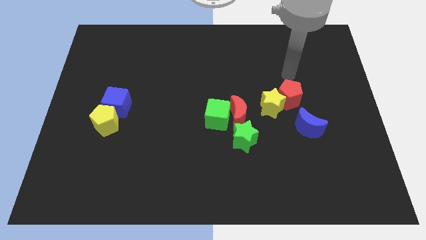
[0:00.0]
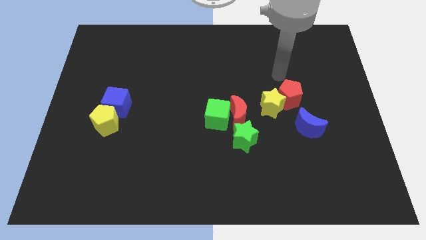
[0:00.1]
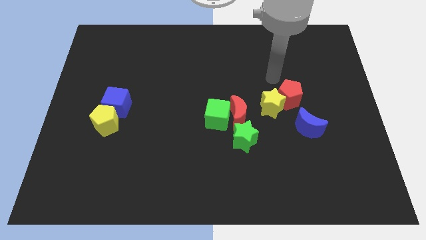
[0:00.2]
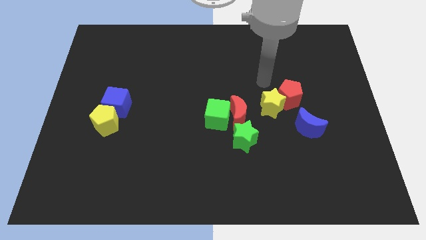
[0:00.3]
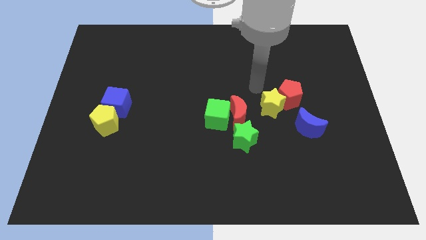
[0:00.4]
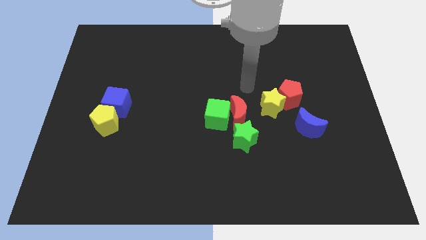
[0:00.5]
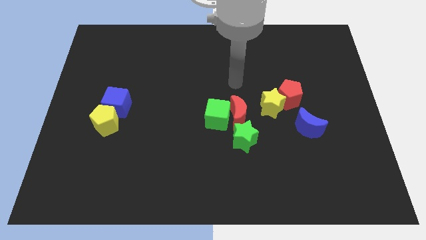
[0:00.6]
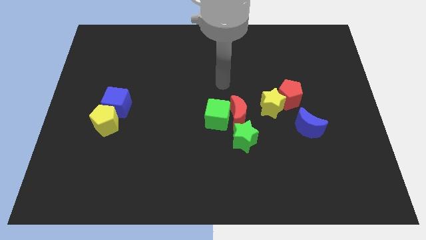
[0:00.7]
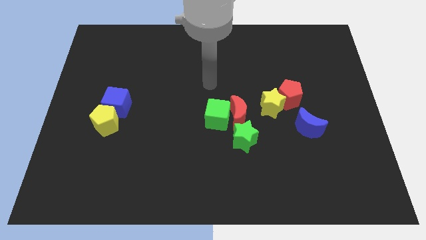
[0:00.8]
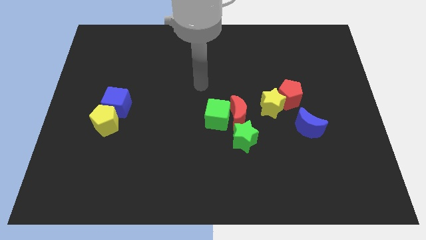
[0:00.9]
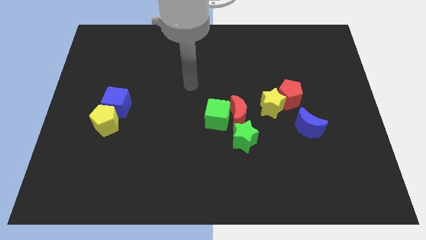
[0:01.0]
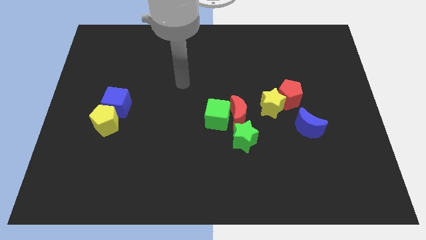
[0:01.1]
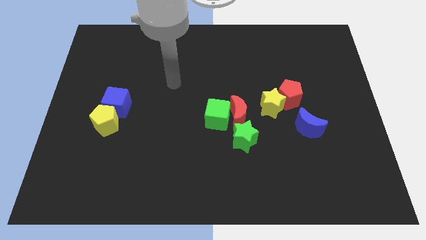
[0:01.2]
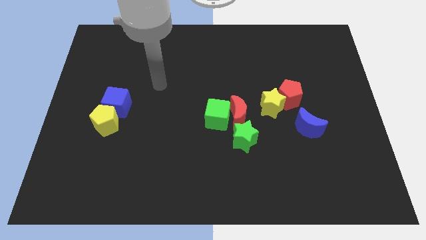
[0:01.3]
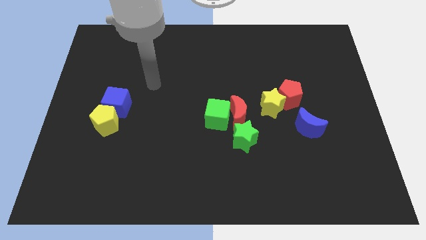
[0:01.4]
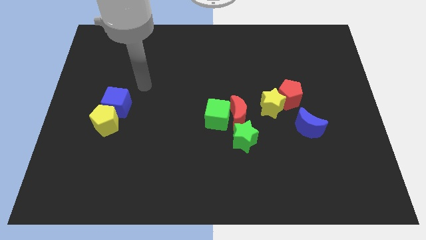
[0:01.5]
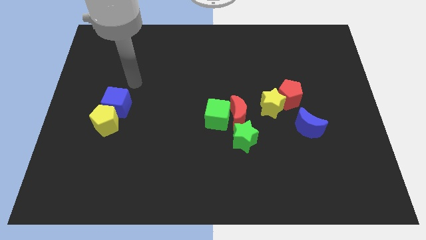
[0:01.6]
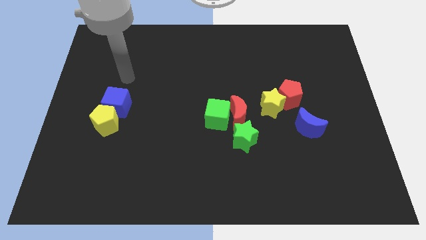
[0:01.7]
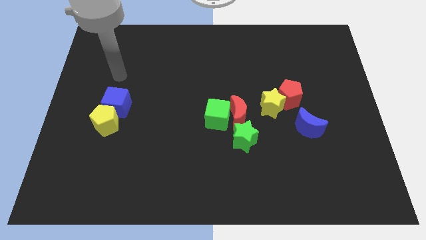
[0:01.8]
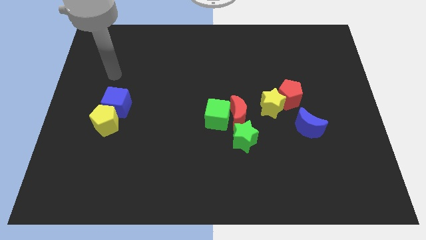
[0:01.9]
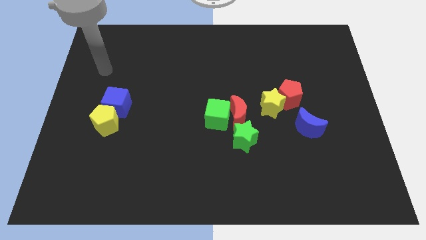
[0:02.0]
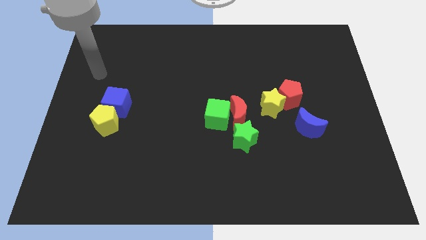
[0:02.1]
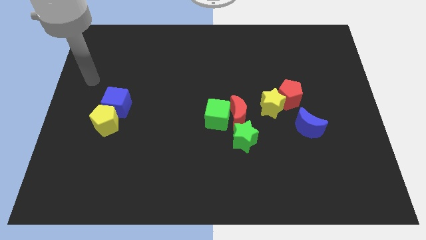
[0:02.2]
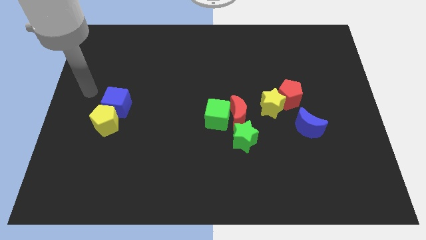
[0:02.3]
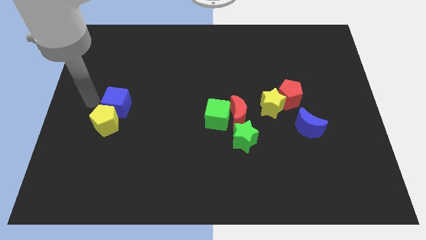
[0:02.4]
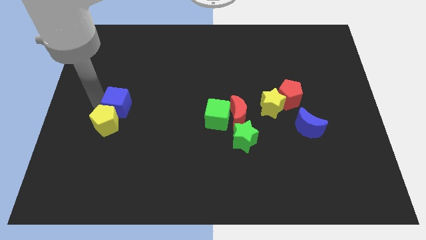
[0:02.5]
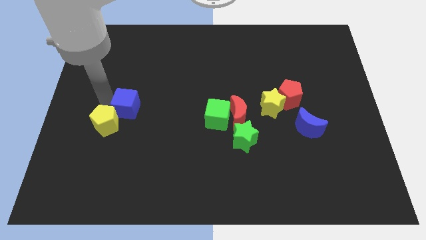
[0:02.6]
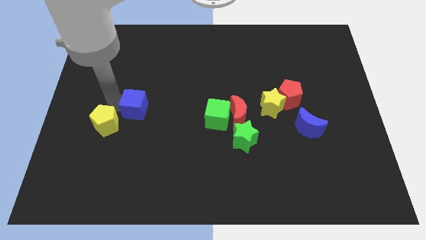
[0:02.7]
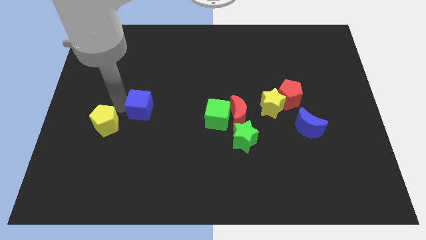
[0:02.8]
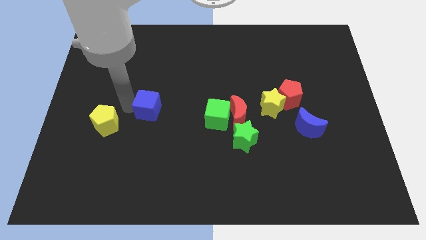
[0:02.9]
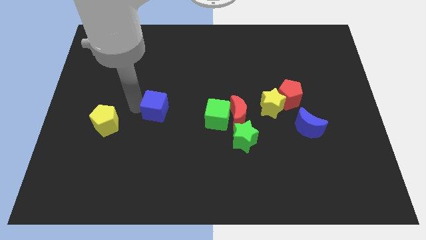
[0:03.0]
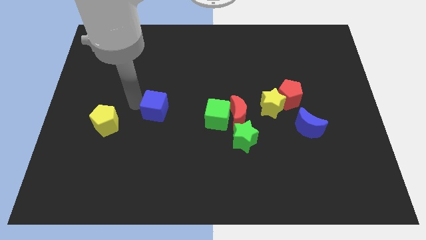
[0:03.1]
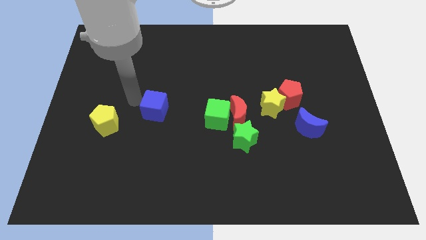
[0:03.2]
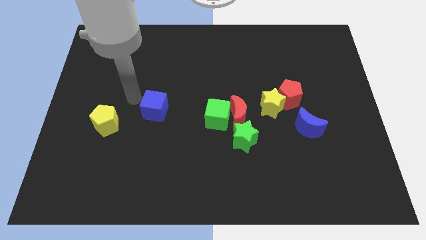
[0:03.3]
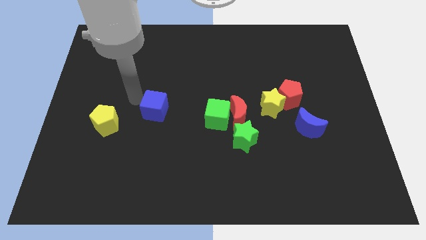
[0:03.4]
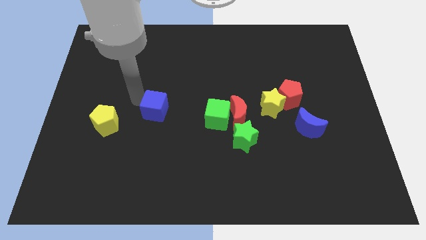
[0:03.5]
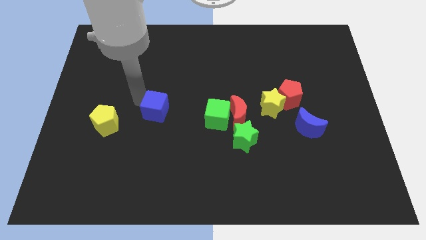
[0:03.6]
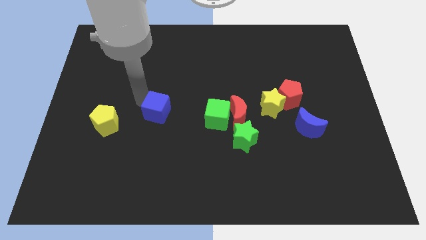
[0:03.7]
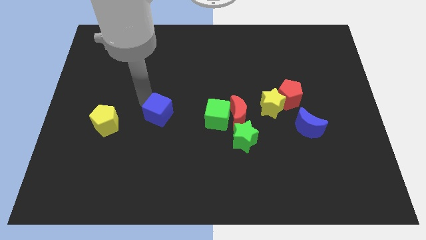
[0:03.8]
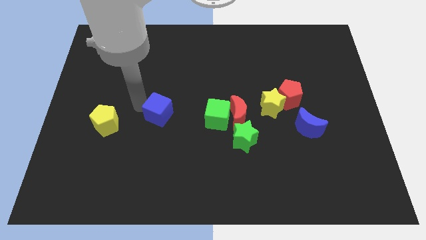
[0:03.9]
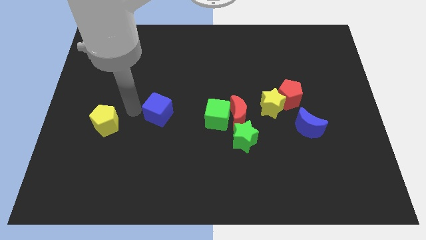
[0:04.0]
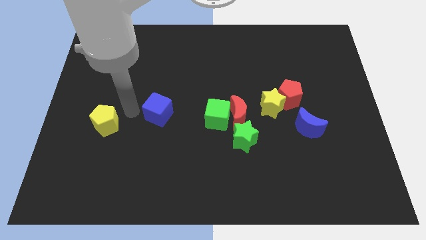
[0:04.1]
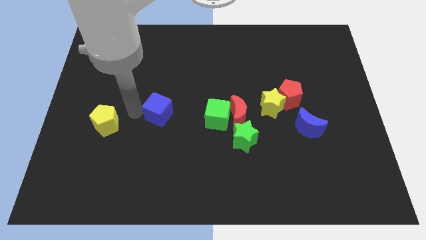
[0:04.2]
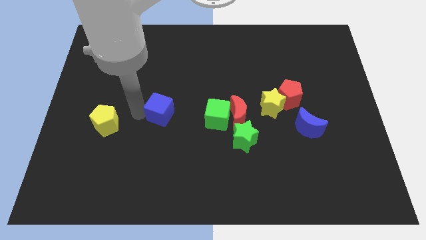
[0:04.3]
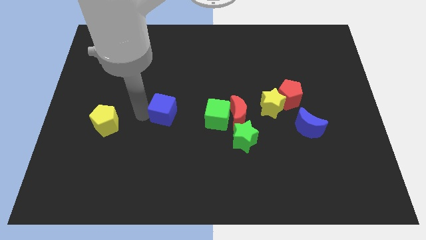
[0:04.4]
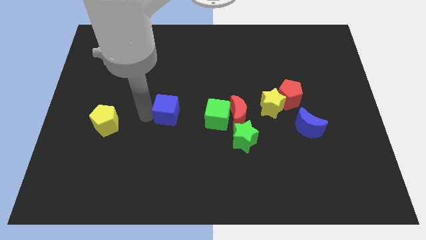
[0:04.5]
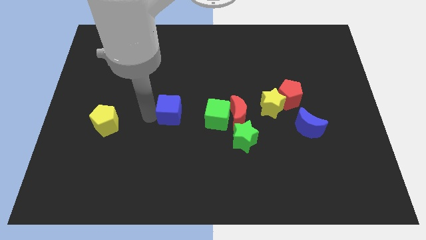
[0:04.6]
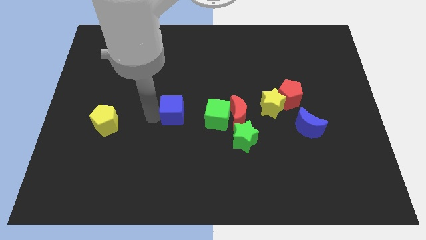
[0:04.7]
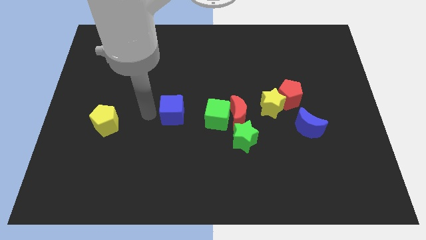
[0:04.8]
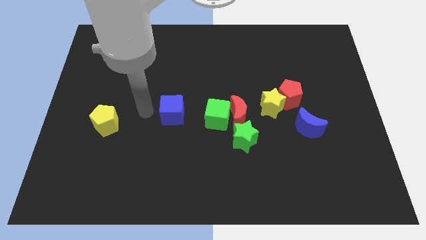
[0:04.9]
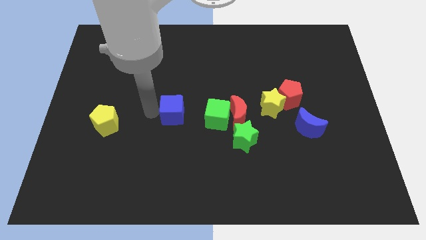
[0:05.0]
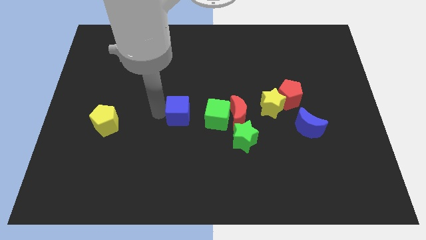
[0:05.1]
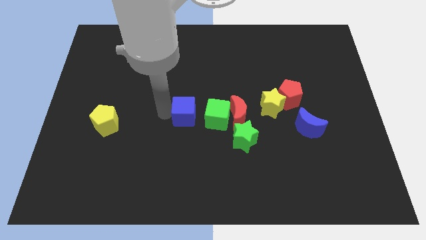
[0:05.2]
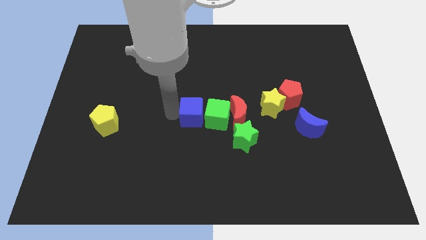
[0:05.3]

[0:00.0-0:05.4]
put the blue cube close to the green cube

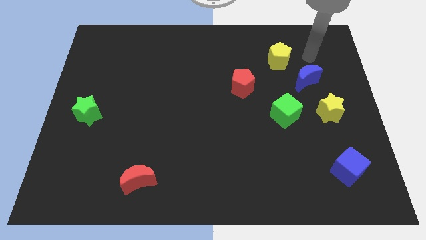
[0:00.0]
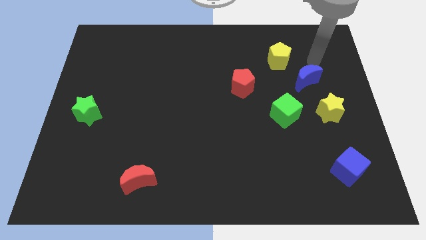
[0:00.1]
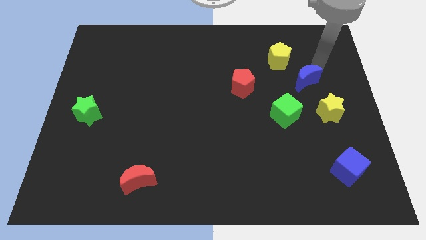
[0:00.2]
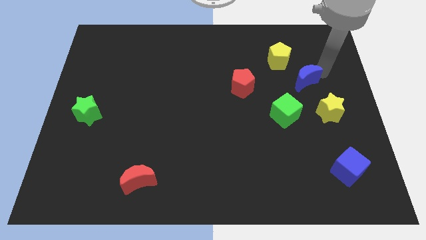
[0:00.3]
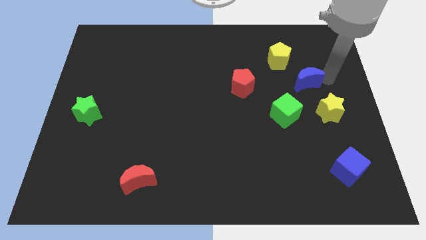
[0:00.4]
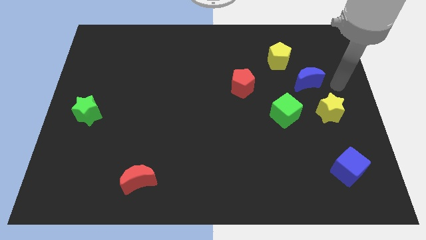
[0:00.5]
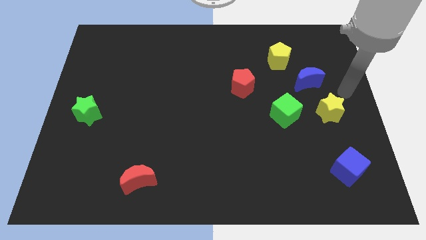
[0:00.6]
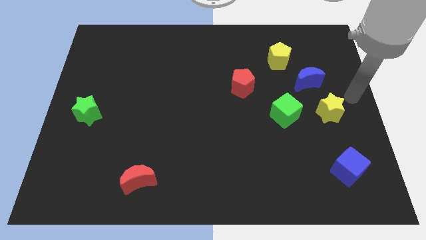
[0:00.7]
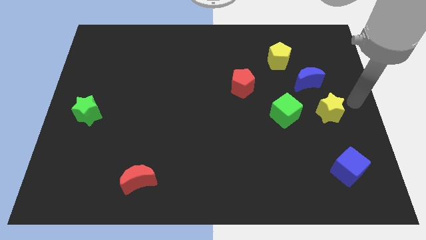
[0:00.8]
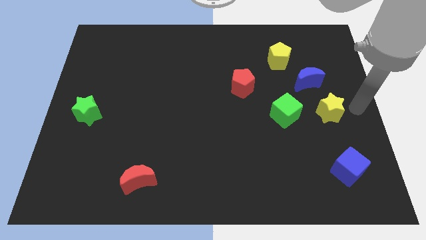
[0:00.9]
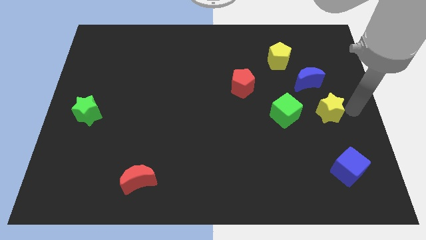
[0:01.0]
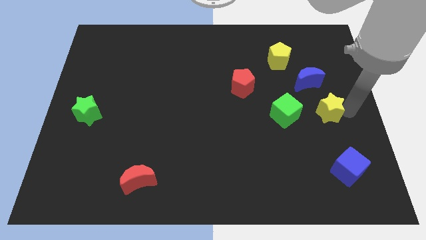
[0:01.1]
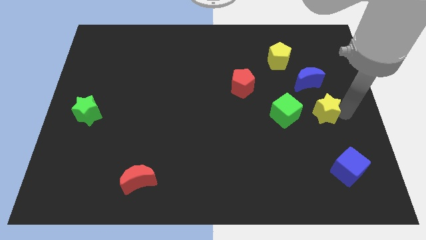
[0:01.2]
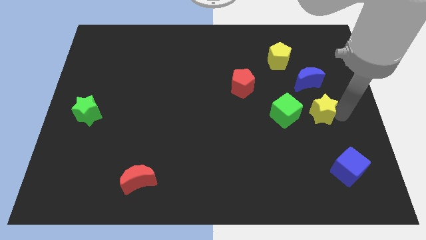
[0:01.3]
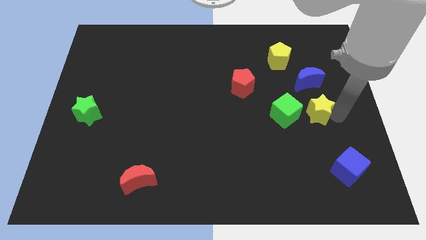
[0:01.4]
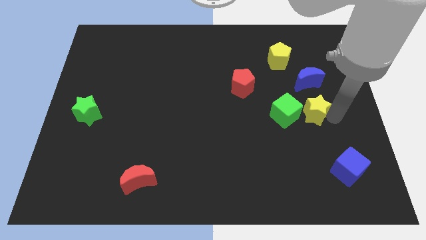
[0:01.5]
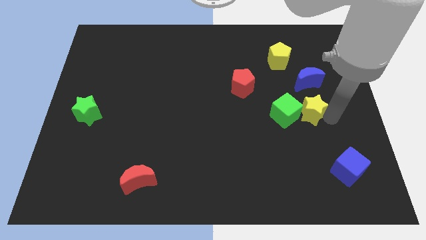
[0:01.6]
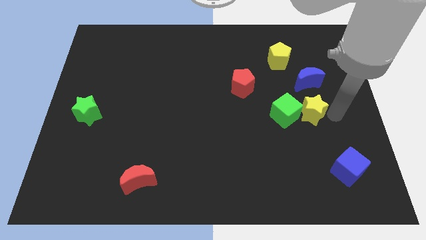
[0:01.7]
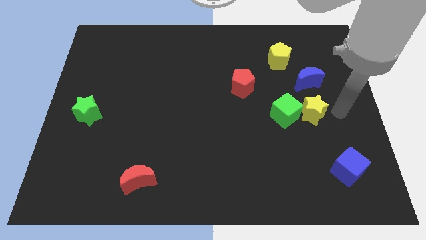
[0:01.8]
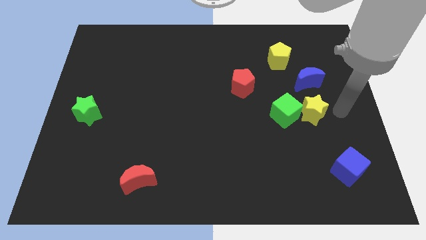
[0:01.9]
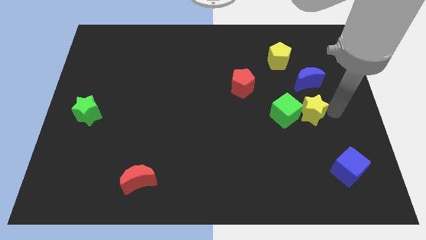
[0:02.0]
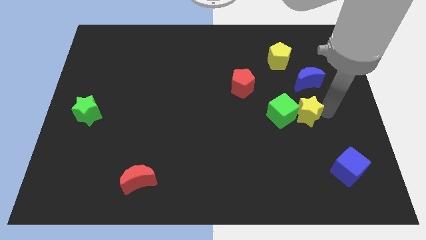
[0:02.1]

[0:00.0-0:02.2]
move the yellow star towards the green cube

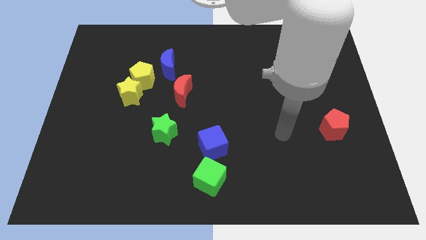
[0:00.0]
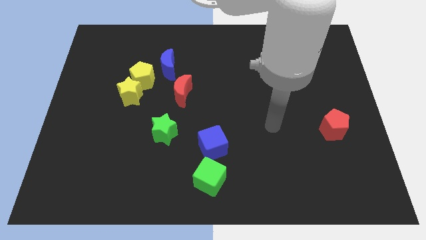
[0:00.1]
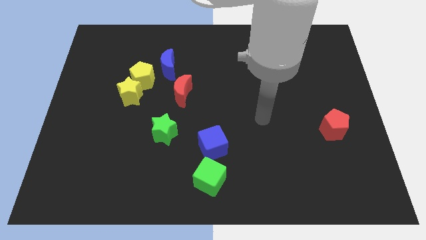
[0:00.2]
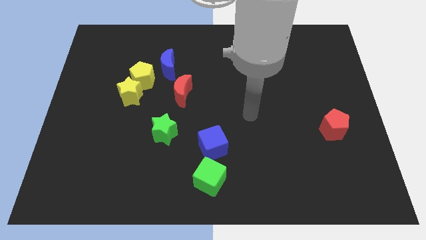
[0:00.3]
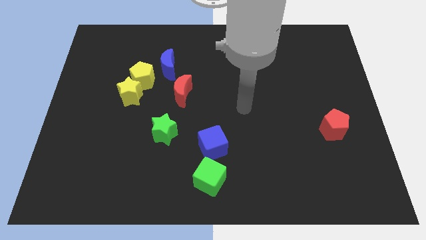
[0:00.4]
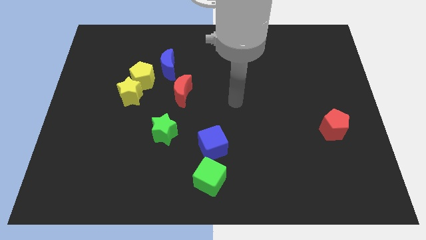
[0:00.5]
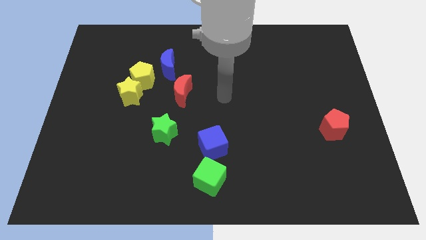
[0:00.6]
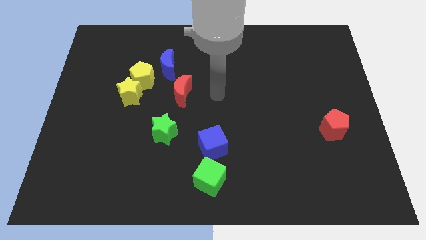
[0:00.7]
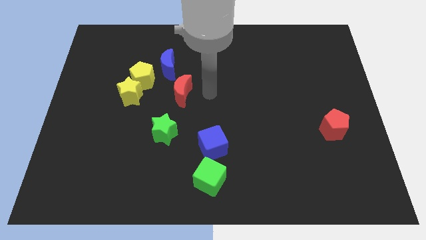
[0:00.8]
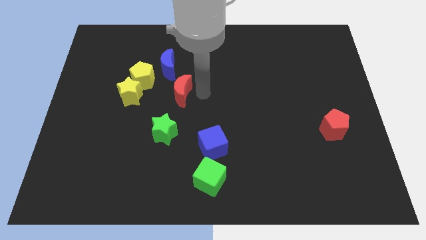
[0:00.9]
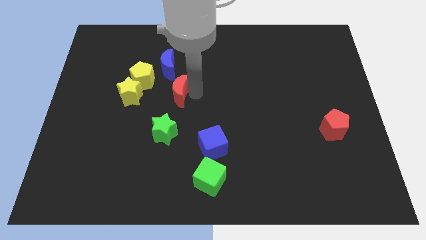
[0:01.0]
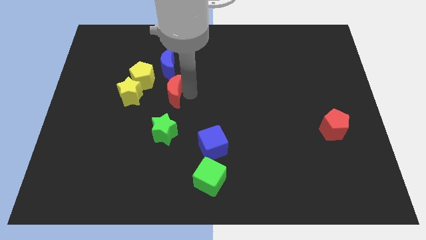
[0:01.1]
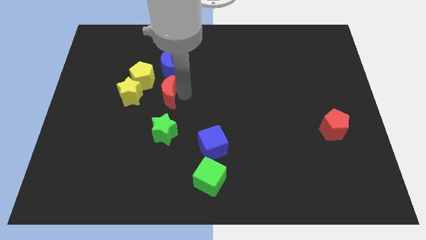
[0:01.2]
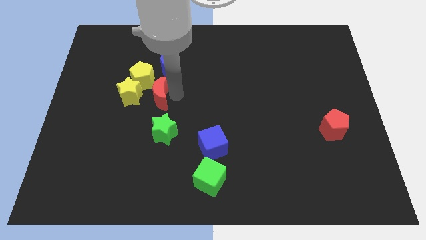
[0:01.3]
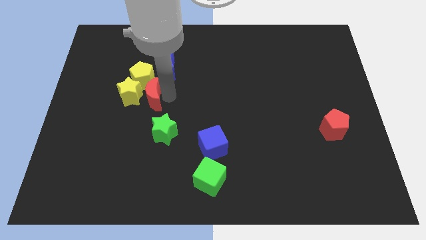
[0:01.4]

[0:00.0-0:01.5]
put the red moon to the yellow star
